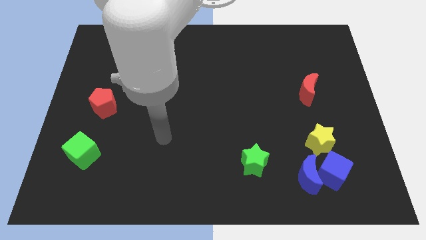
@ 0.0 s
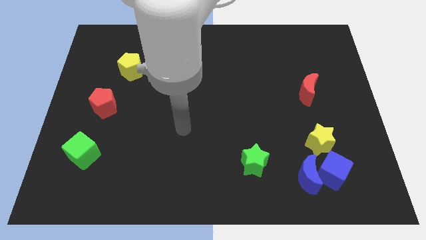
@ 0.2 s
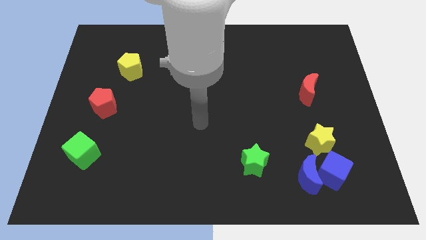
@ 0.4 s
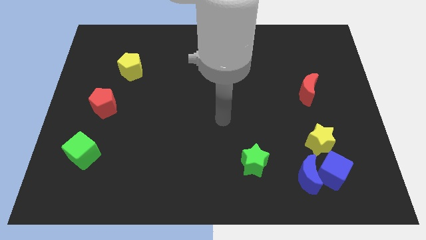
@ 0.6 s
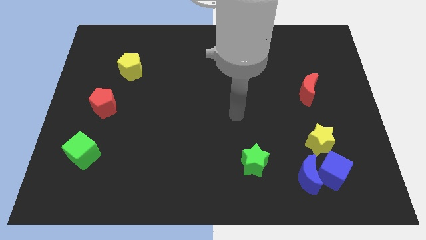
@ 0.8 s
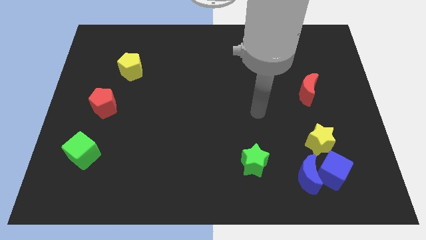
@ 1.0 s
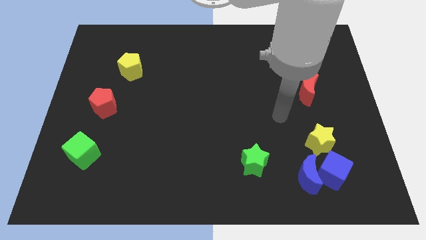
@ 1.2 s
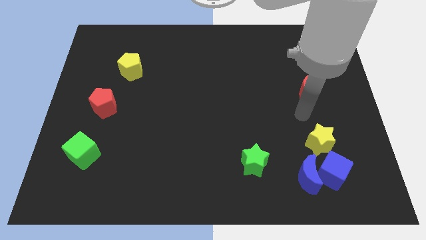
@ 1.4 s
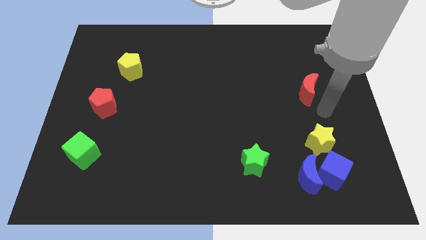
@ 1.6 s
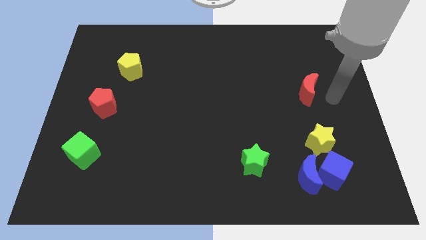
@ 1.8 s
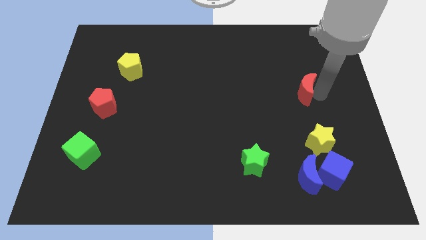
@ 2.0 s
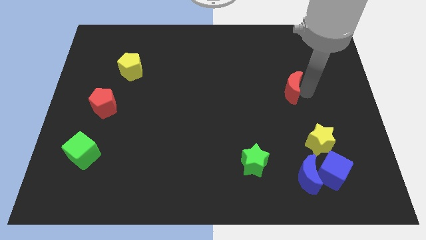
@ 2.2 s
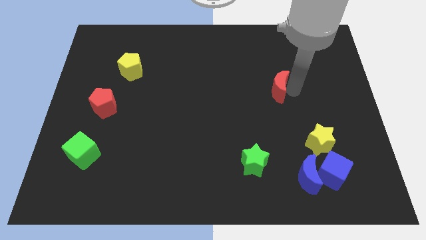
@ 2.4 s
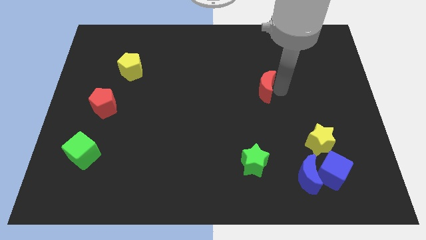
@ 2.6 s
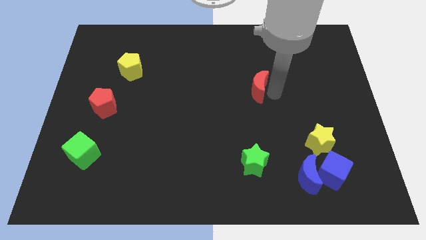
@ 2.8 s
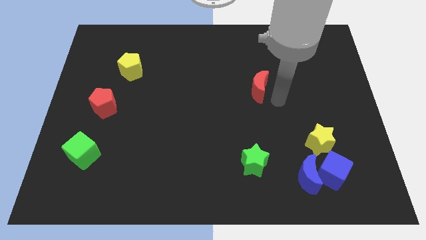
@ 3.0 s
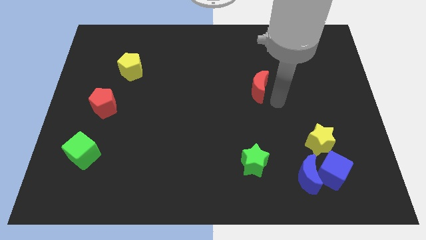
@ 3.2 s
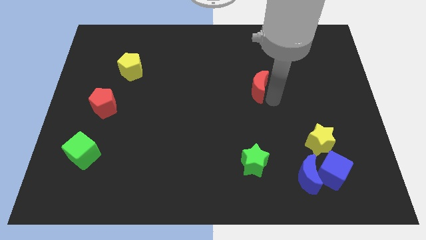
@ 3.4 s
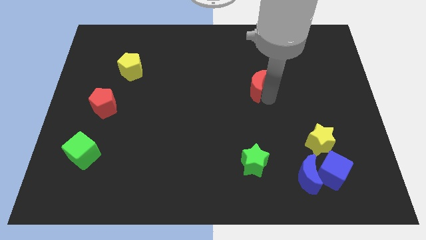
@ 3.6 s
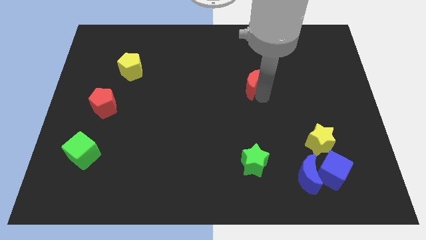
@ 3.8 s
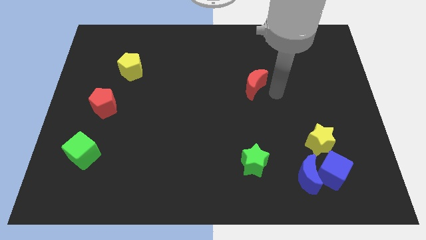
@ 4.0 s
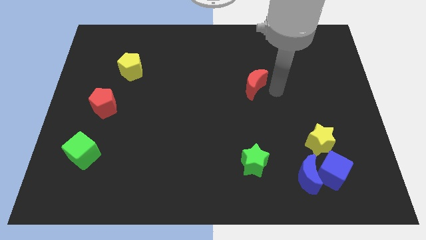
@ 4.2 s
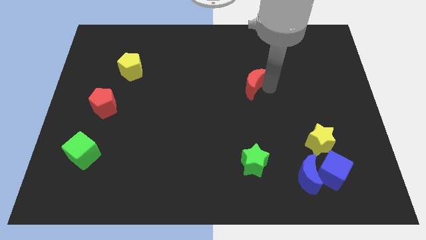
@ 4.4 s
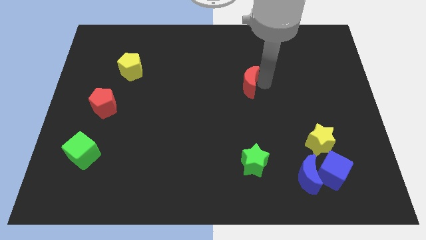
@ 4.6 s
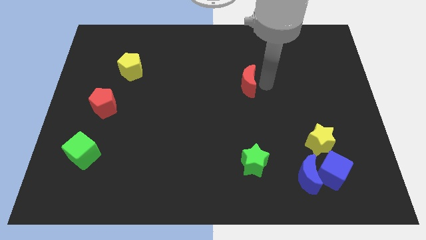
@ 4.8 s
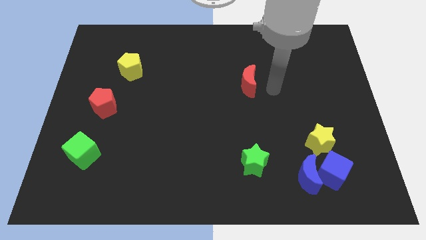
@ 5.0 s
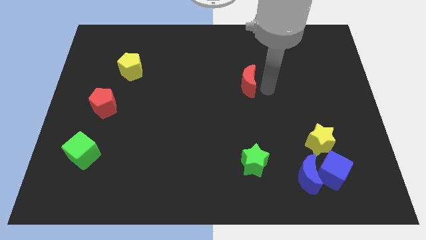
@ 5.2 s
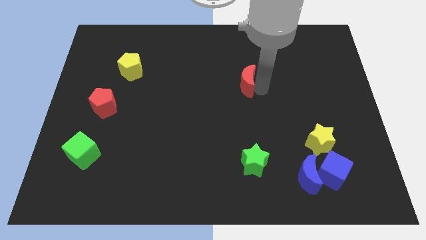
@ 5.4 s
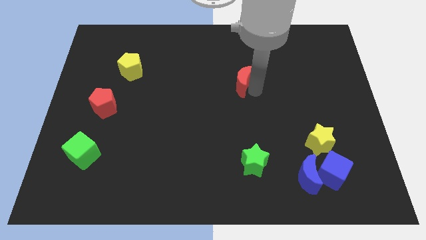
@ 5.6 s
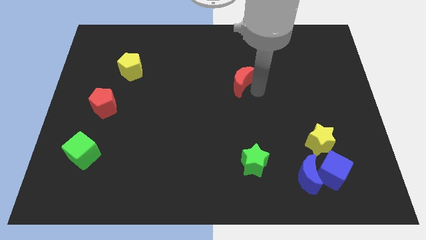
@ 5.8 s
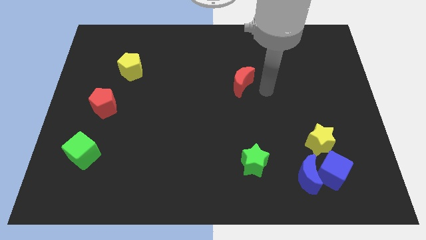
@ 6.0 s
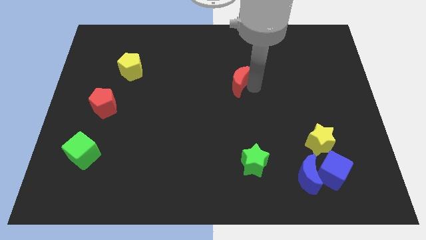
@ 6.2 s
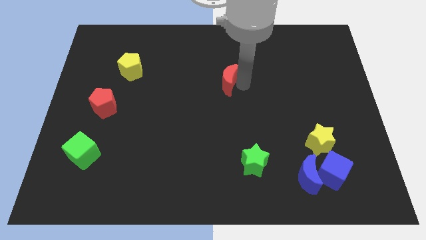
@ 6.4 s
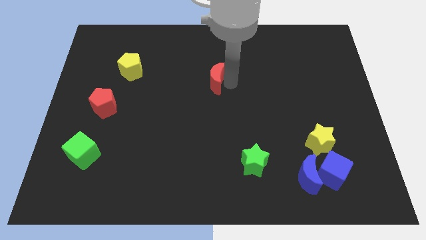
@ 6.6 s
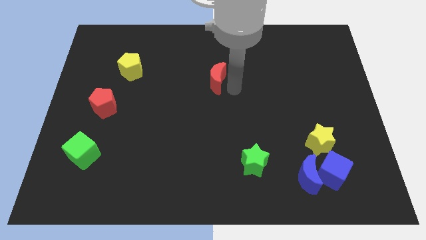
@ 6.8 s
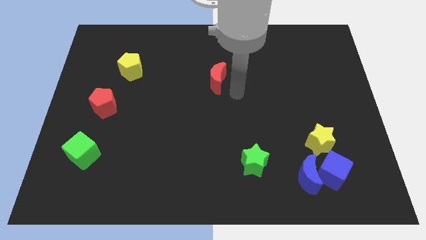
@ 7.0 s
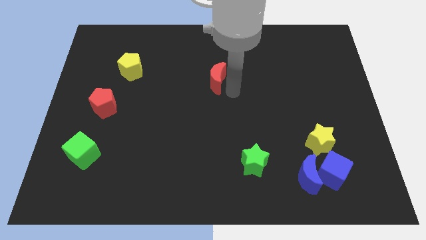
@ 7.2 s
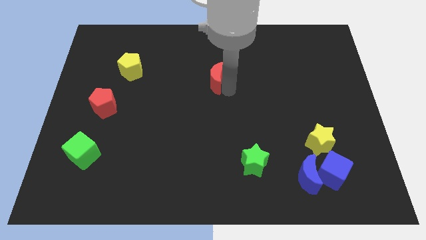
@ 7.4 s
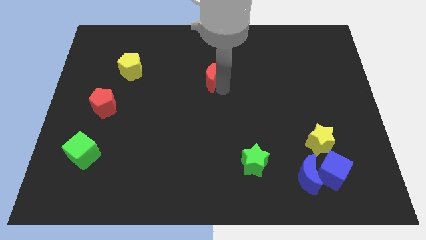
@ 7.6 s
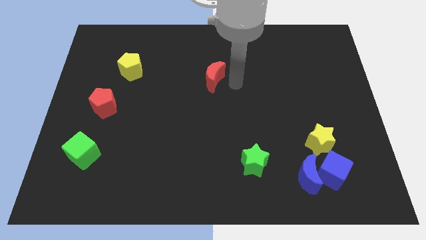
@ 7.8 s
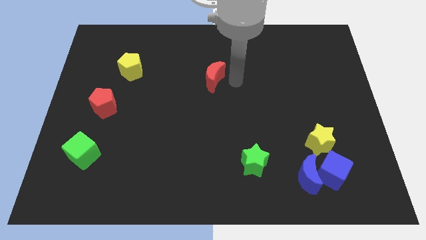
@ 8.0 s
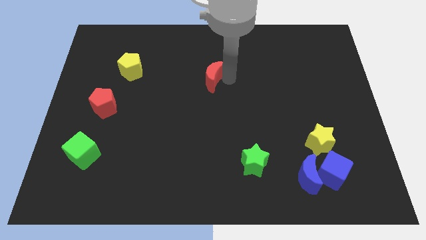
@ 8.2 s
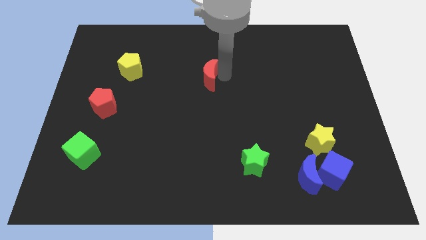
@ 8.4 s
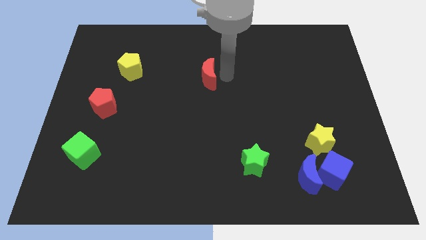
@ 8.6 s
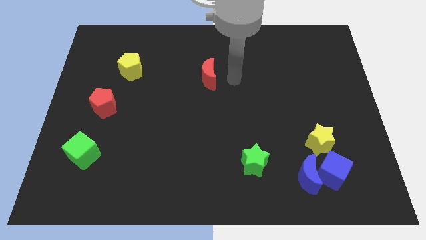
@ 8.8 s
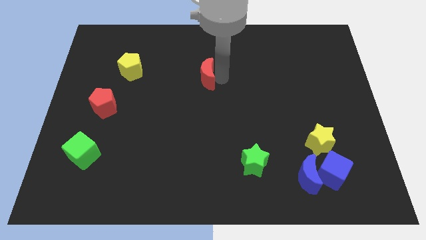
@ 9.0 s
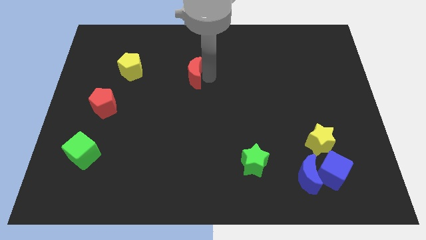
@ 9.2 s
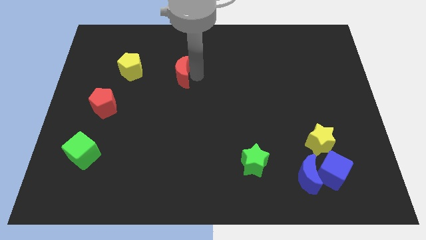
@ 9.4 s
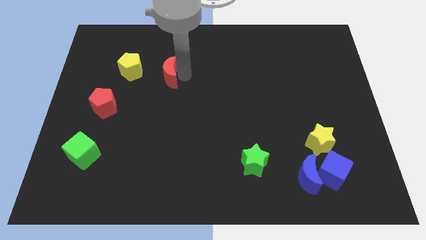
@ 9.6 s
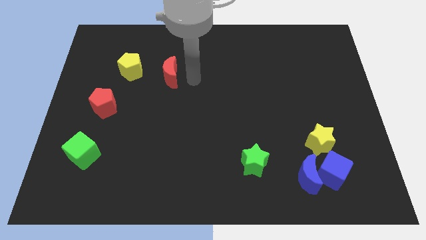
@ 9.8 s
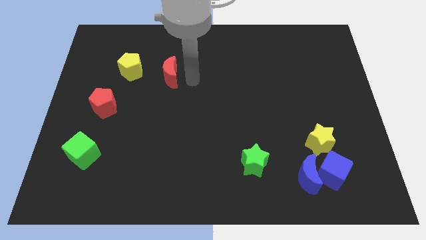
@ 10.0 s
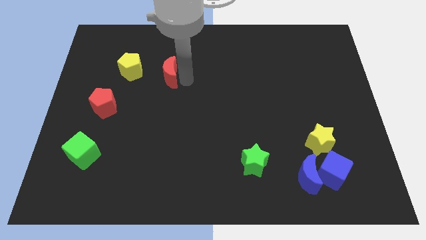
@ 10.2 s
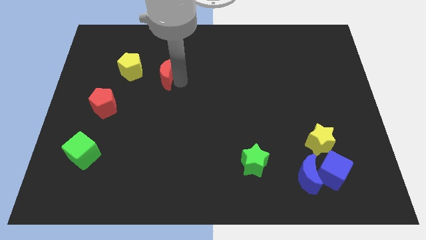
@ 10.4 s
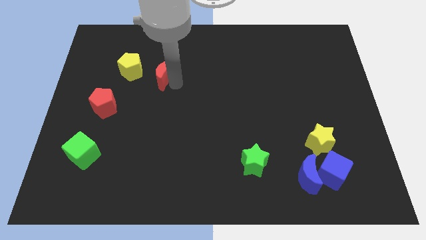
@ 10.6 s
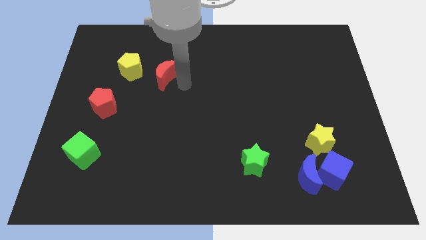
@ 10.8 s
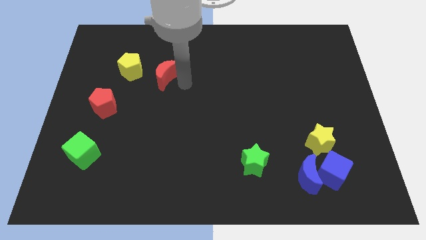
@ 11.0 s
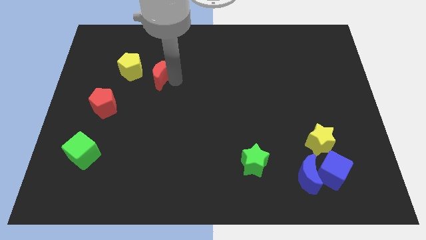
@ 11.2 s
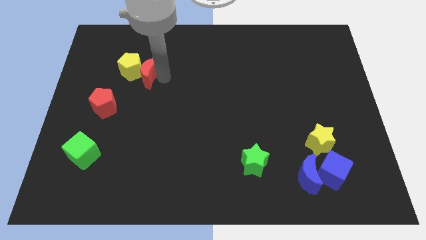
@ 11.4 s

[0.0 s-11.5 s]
move the red moon to the yellow pentagon

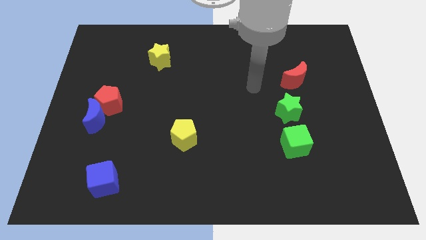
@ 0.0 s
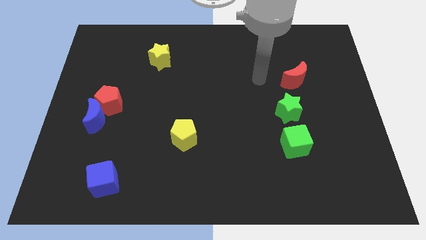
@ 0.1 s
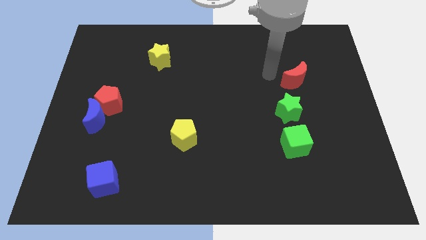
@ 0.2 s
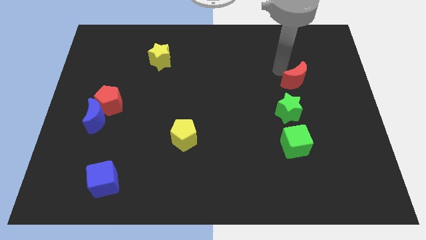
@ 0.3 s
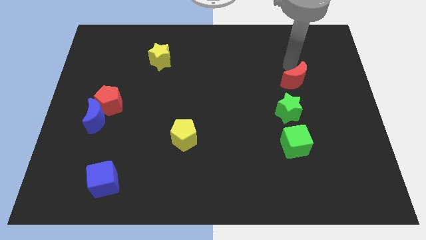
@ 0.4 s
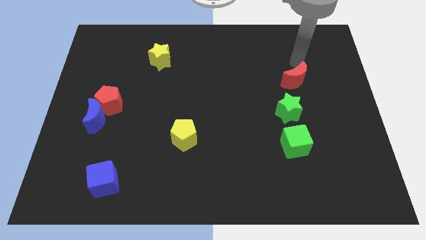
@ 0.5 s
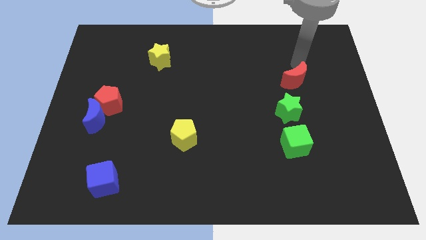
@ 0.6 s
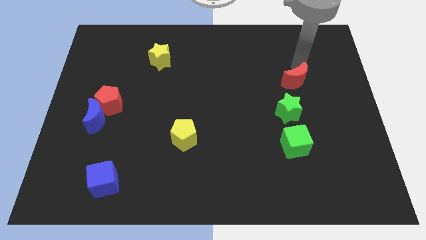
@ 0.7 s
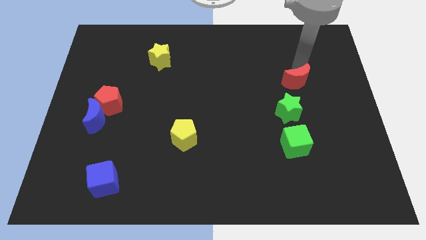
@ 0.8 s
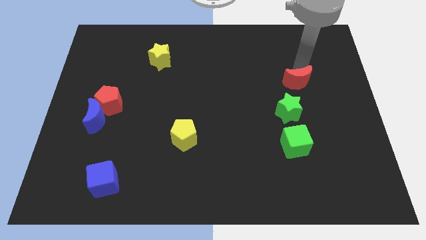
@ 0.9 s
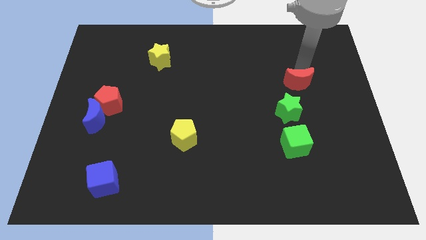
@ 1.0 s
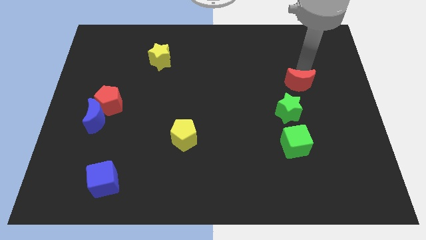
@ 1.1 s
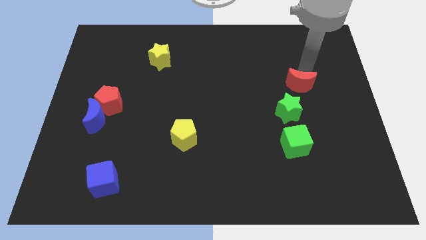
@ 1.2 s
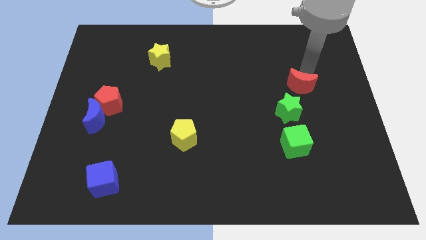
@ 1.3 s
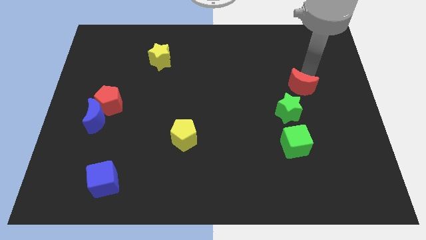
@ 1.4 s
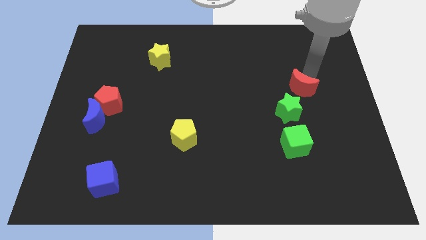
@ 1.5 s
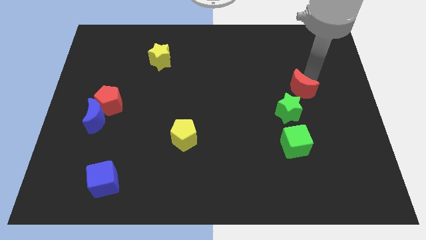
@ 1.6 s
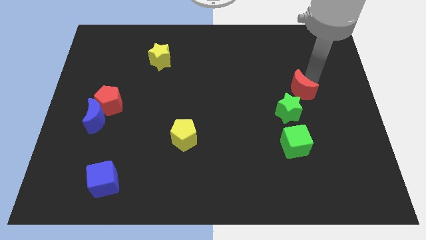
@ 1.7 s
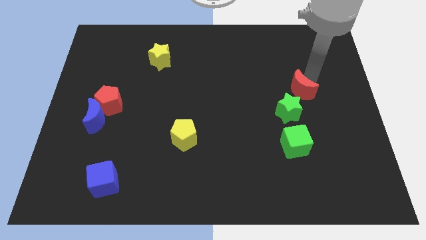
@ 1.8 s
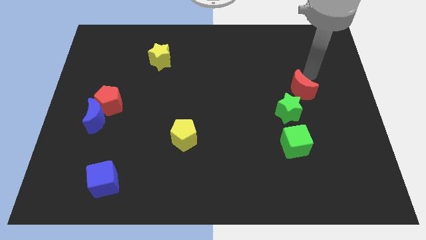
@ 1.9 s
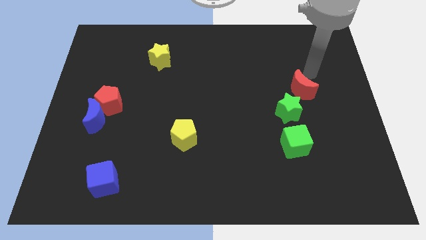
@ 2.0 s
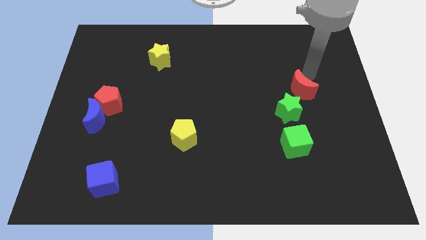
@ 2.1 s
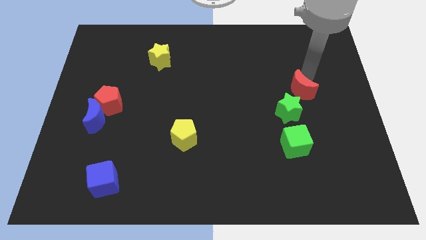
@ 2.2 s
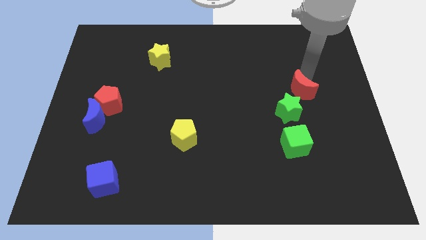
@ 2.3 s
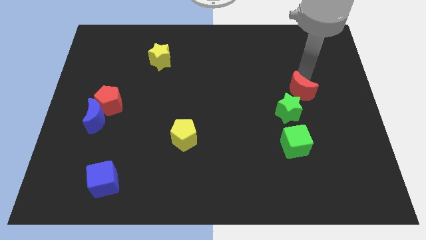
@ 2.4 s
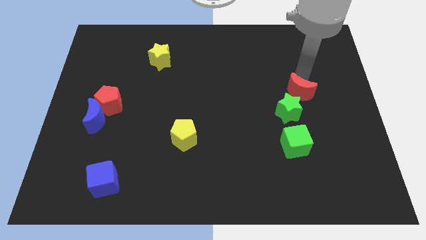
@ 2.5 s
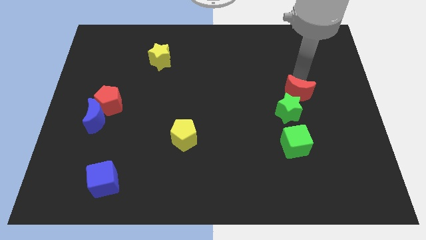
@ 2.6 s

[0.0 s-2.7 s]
slide the red moon to the green star
